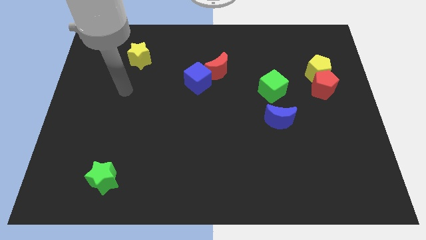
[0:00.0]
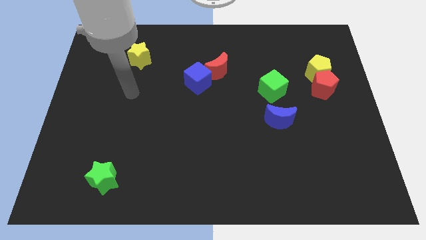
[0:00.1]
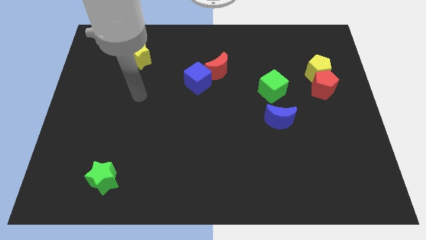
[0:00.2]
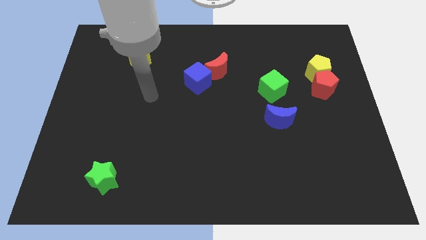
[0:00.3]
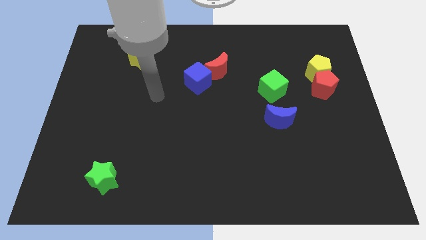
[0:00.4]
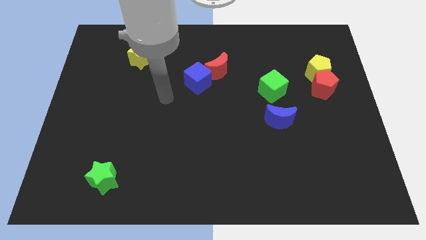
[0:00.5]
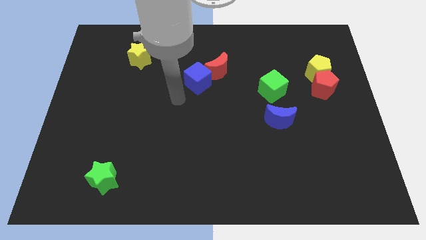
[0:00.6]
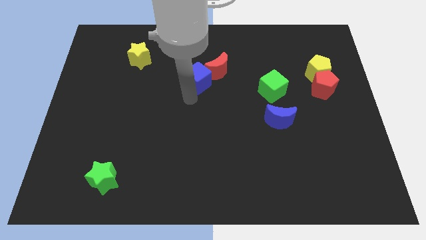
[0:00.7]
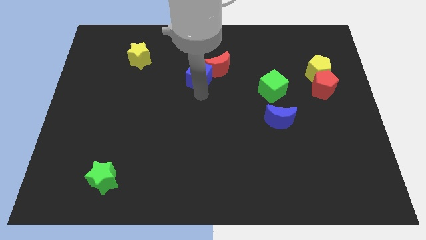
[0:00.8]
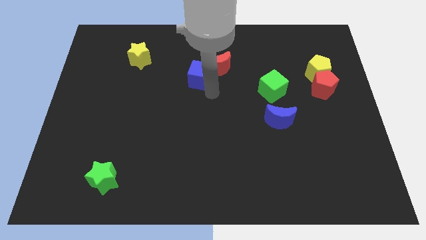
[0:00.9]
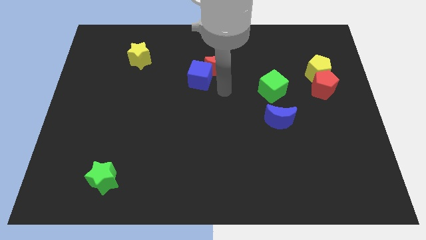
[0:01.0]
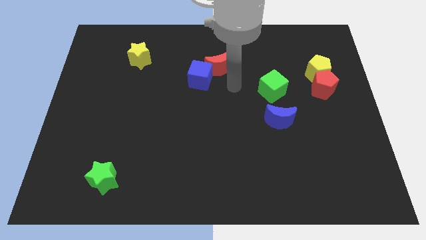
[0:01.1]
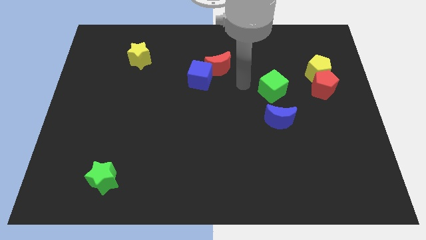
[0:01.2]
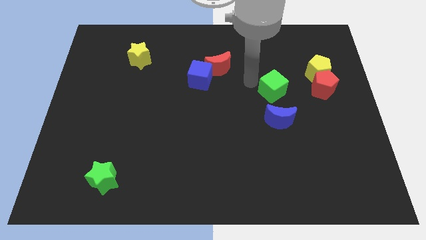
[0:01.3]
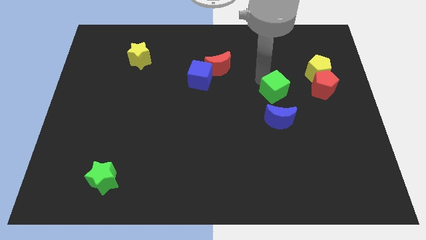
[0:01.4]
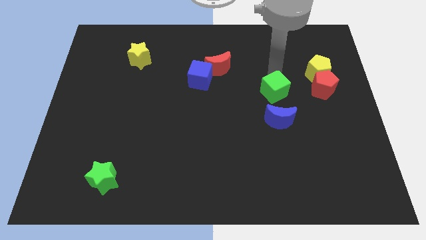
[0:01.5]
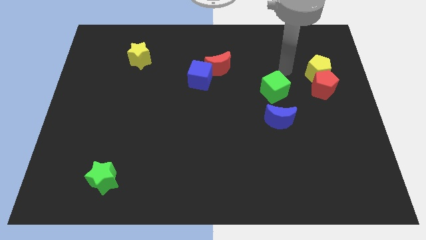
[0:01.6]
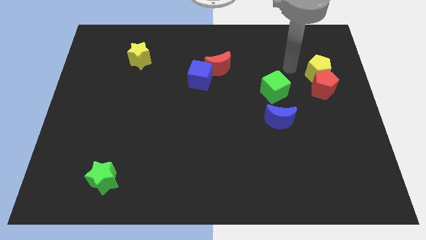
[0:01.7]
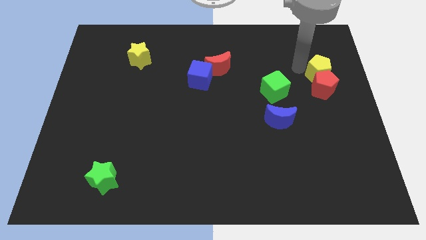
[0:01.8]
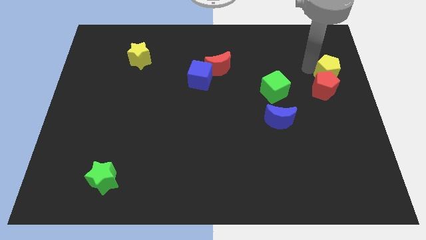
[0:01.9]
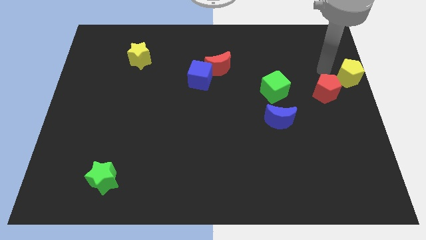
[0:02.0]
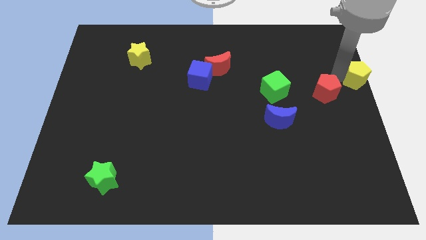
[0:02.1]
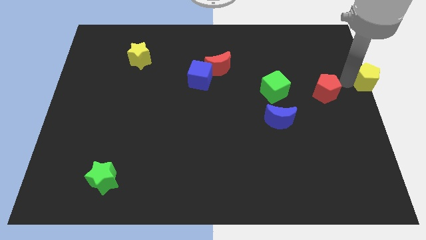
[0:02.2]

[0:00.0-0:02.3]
separate the red pentagon from the yellow pentagon

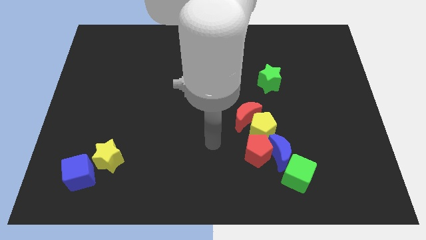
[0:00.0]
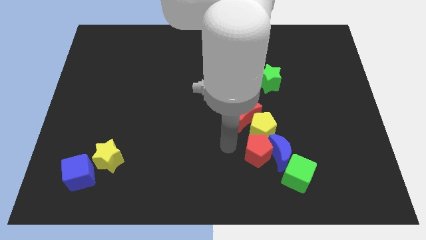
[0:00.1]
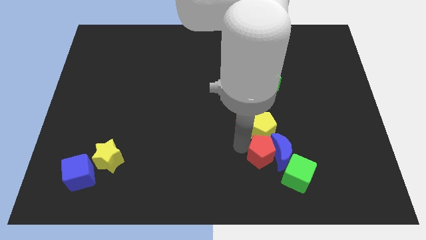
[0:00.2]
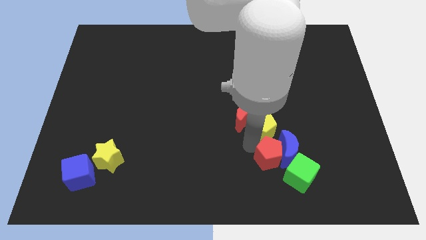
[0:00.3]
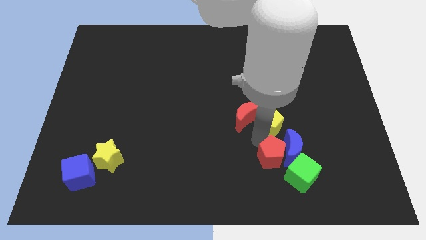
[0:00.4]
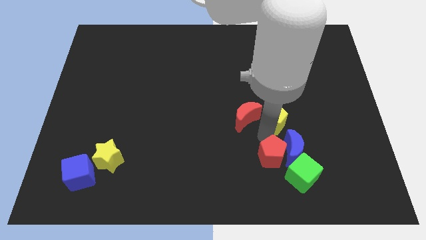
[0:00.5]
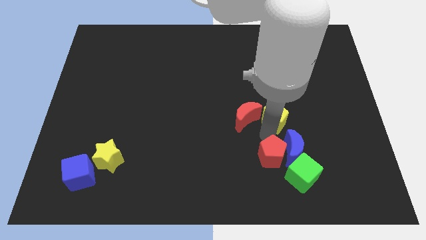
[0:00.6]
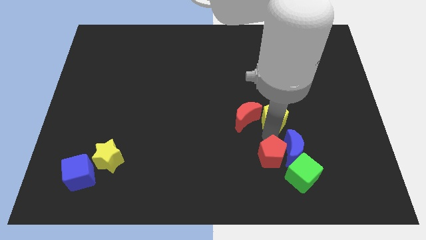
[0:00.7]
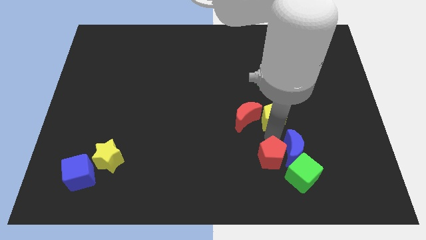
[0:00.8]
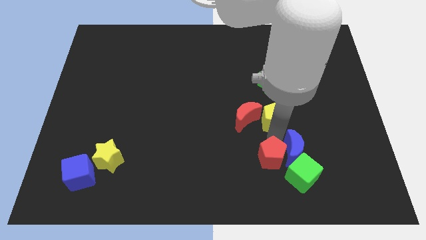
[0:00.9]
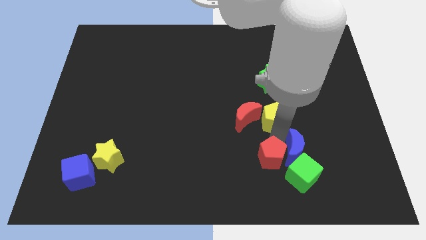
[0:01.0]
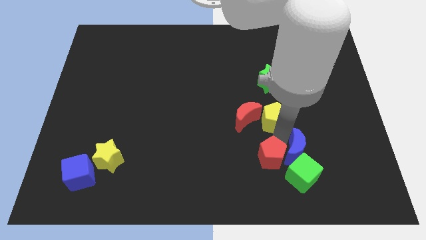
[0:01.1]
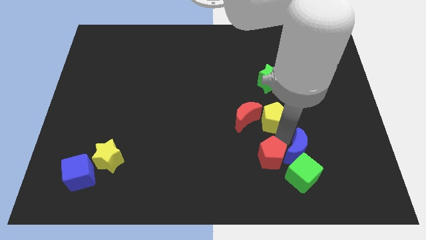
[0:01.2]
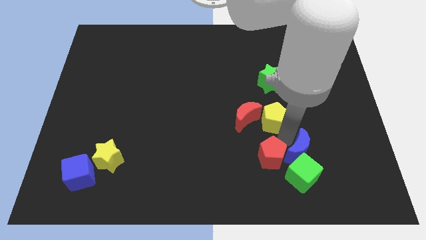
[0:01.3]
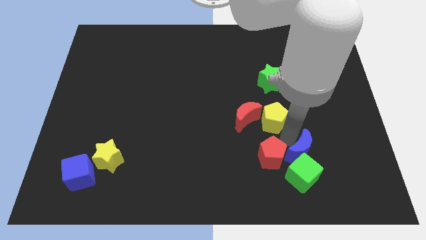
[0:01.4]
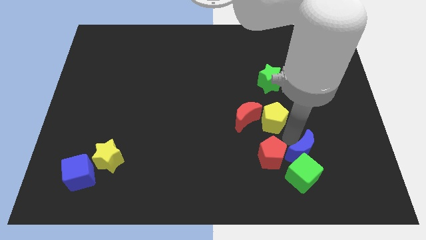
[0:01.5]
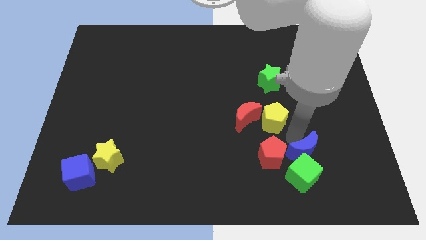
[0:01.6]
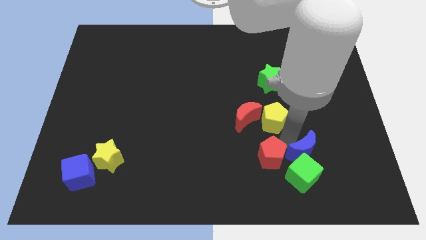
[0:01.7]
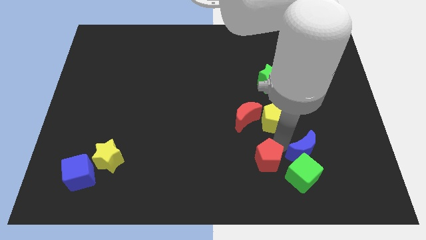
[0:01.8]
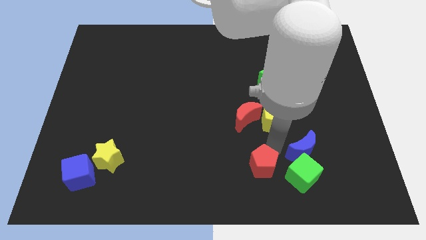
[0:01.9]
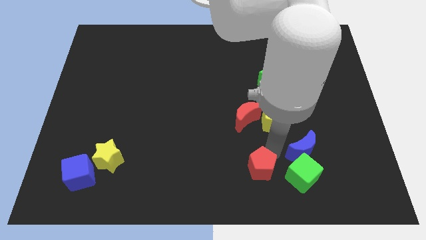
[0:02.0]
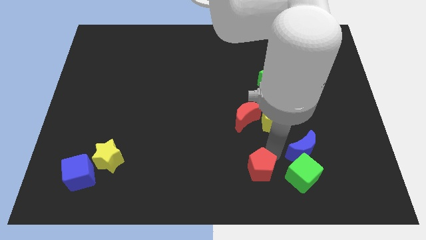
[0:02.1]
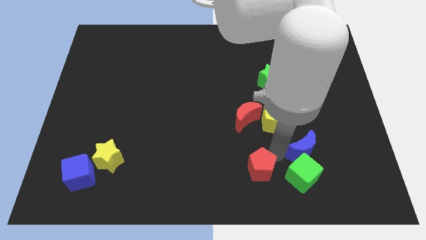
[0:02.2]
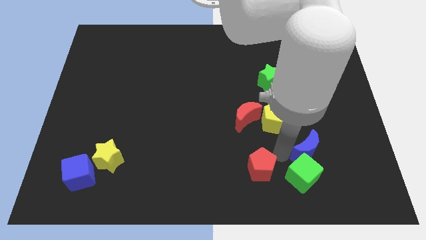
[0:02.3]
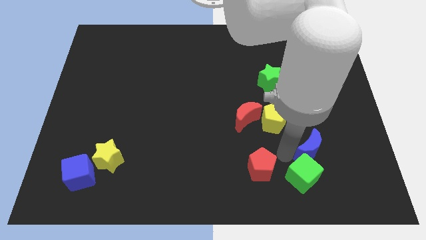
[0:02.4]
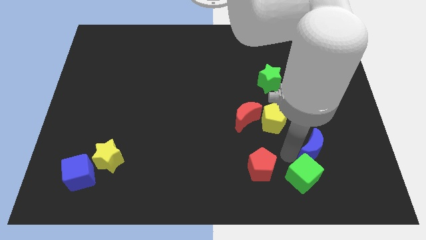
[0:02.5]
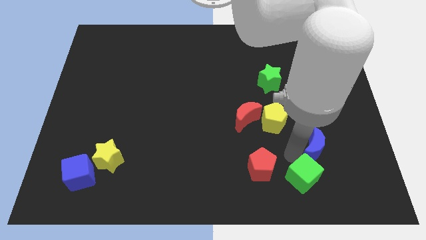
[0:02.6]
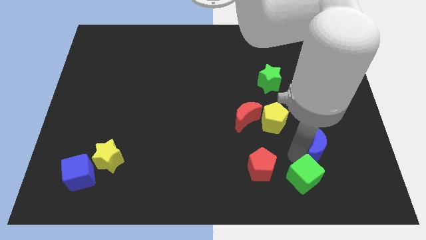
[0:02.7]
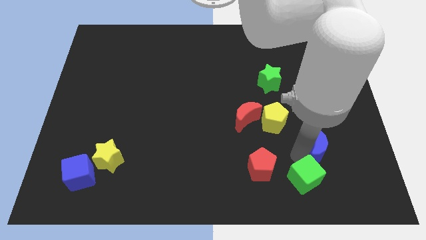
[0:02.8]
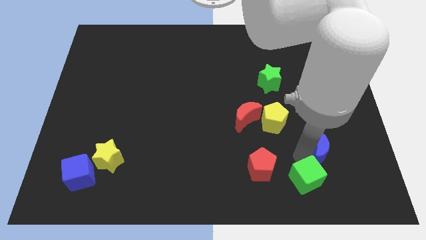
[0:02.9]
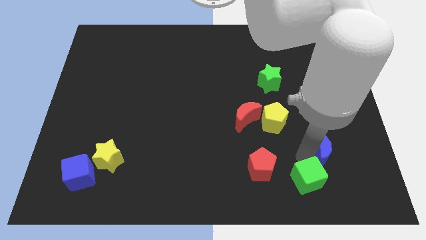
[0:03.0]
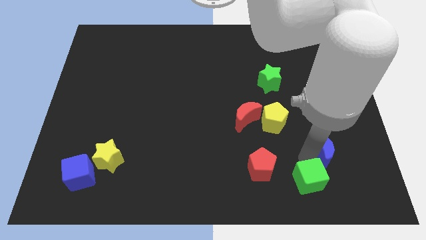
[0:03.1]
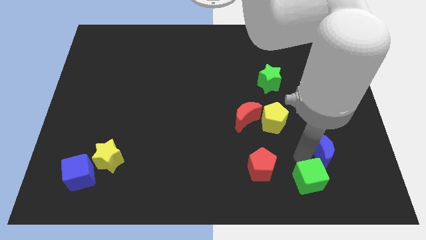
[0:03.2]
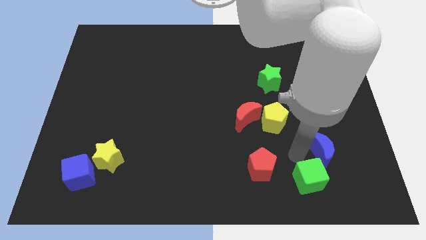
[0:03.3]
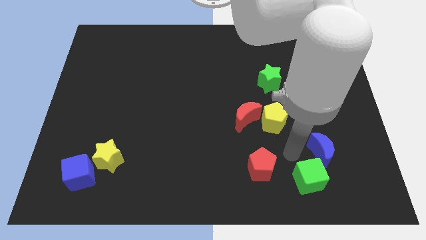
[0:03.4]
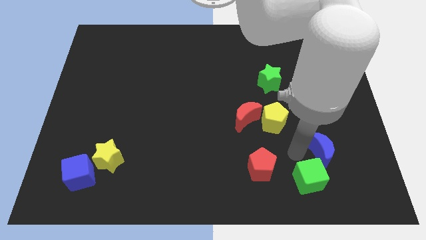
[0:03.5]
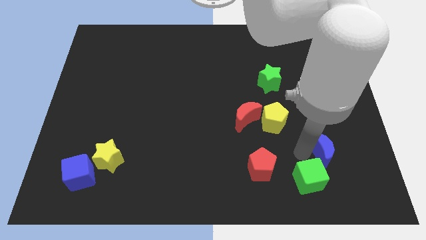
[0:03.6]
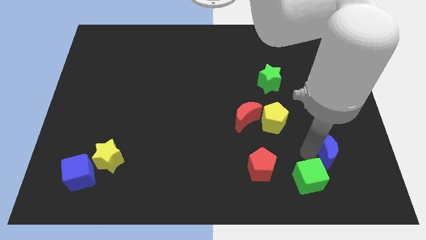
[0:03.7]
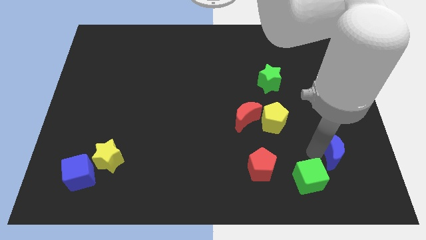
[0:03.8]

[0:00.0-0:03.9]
separate the blue moon from the red pentagon, green cube, and yellow pentagon

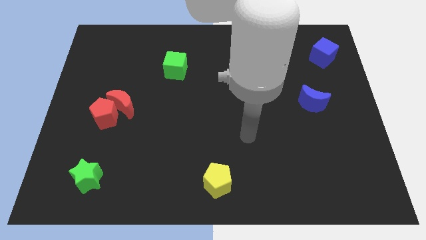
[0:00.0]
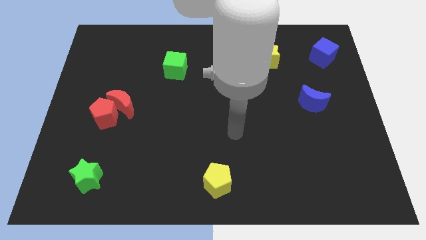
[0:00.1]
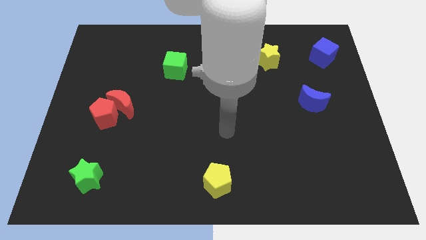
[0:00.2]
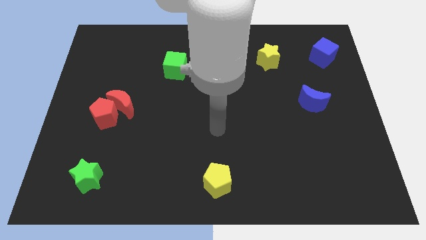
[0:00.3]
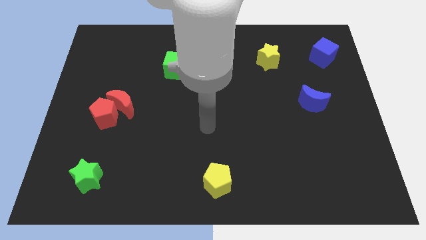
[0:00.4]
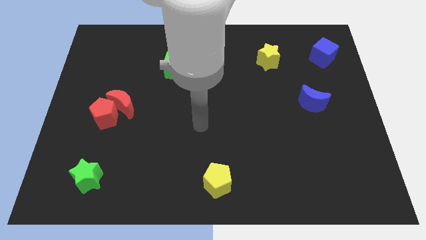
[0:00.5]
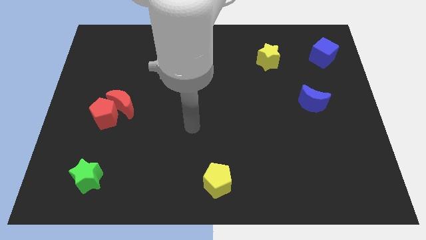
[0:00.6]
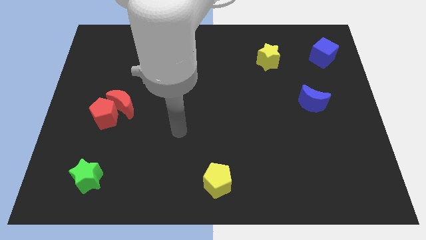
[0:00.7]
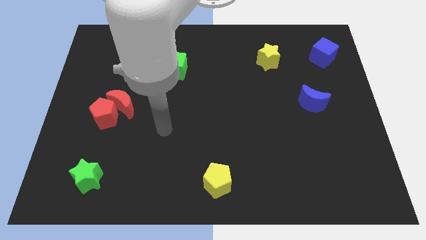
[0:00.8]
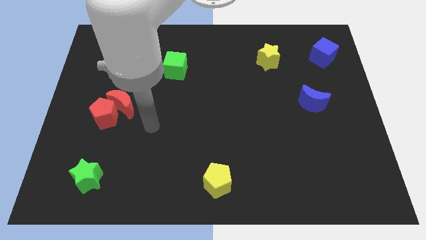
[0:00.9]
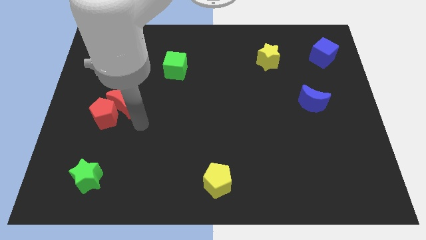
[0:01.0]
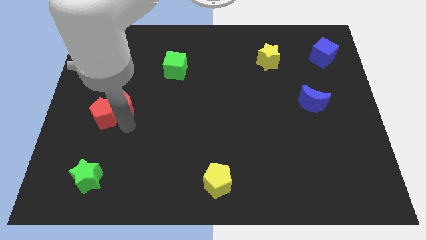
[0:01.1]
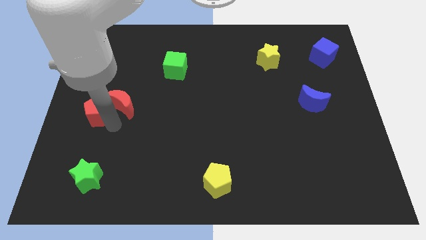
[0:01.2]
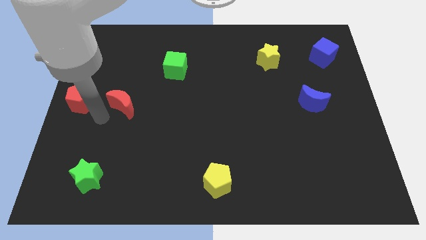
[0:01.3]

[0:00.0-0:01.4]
pull the red moon apart from the red pentagon

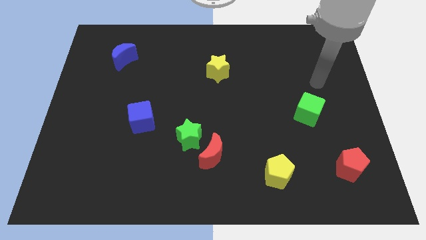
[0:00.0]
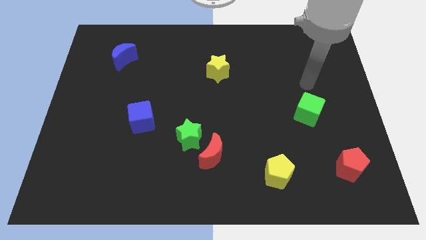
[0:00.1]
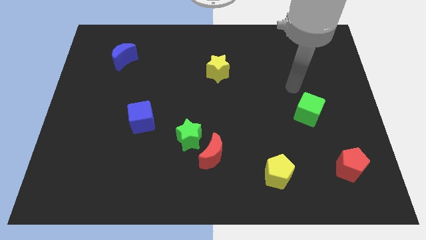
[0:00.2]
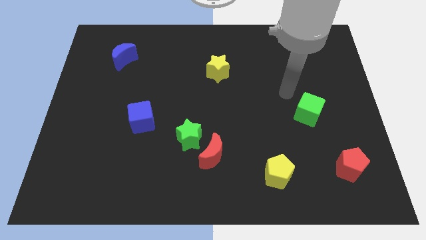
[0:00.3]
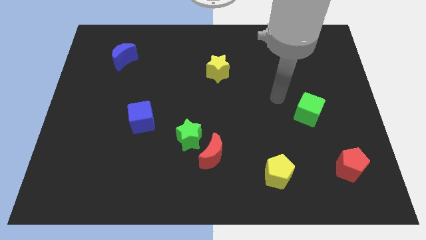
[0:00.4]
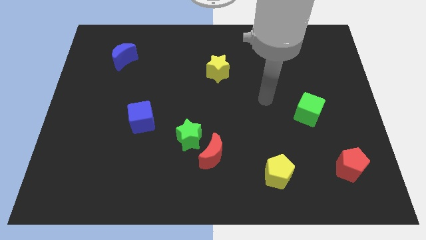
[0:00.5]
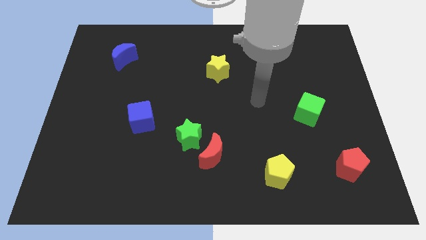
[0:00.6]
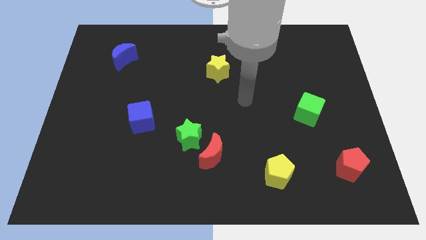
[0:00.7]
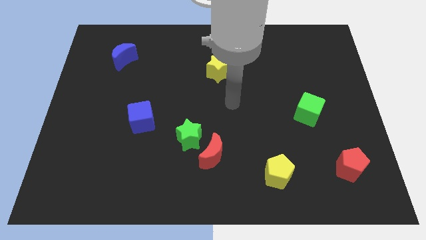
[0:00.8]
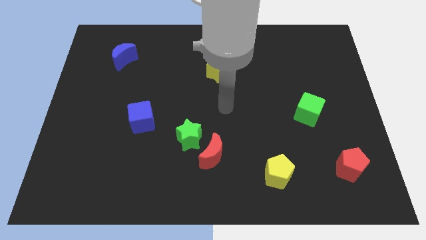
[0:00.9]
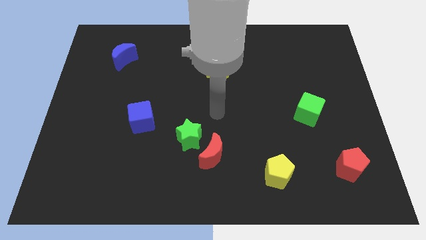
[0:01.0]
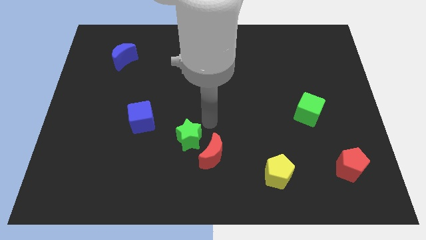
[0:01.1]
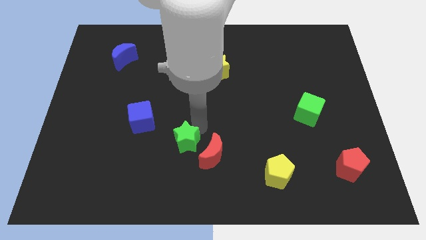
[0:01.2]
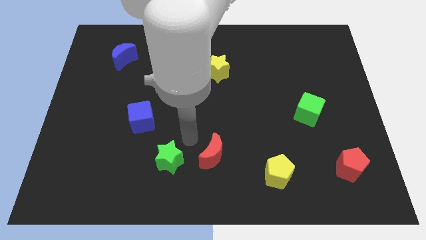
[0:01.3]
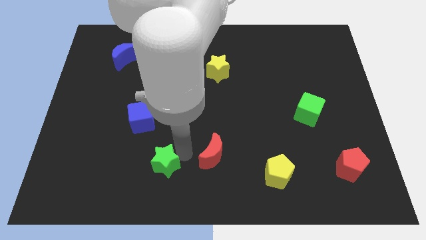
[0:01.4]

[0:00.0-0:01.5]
separate the red moon from the green star

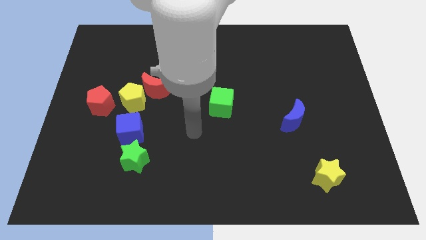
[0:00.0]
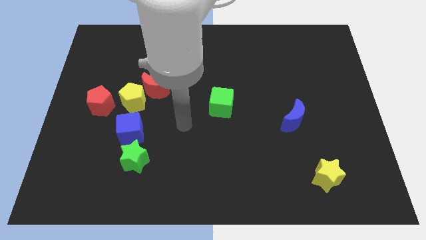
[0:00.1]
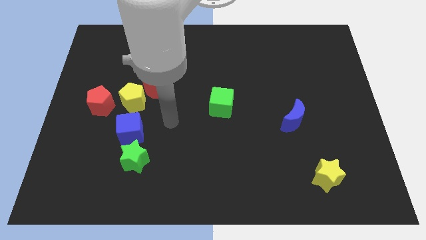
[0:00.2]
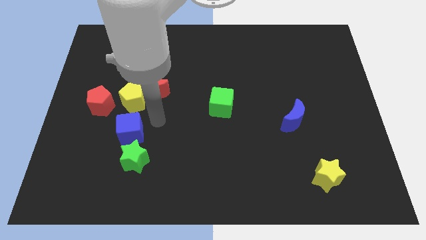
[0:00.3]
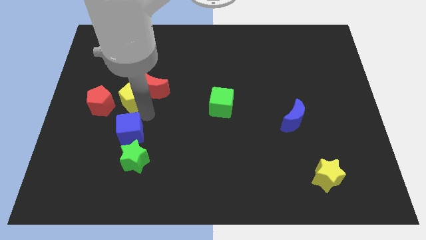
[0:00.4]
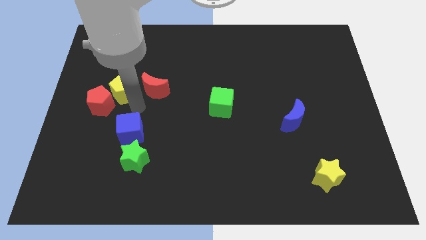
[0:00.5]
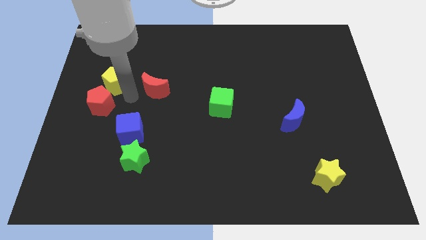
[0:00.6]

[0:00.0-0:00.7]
move the red moon away from the yellow pentagon
